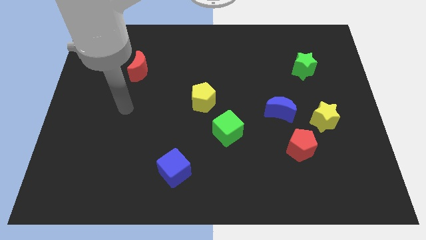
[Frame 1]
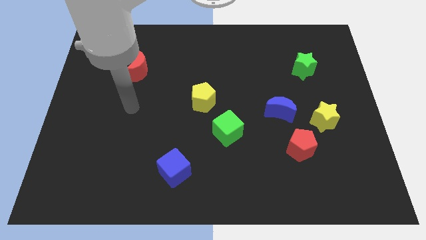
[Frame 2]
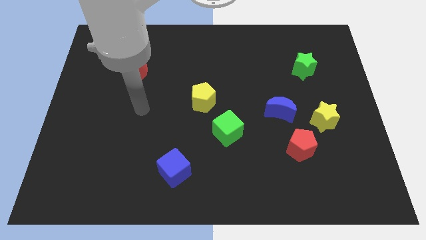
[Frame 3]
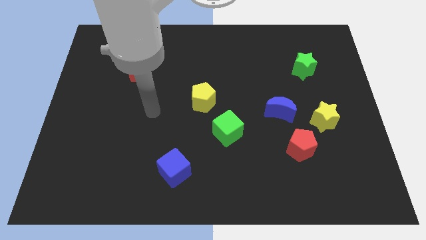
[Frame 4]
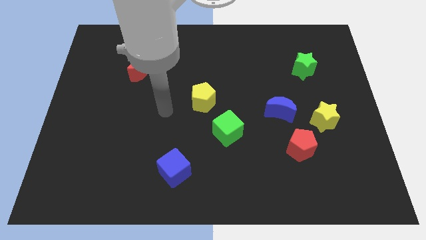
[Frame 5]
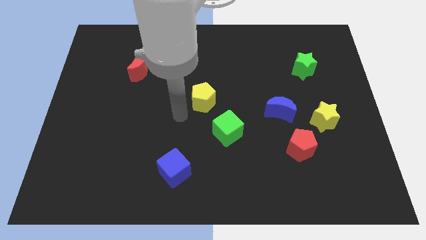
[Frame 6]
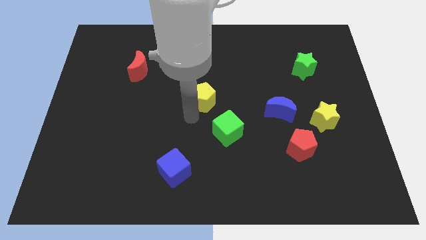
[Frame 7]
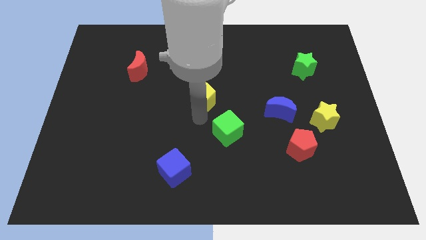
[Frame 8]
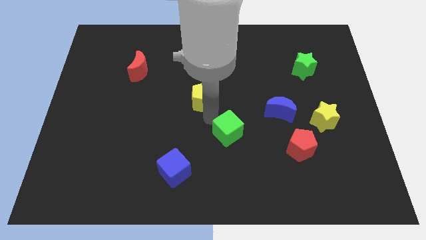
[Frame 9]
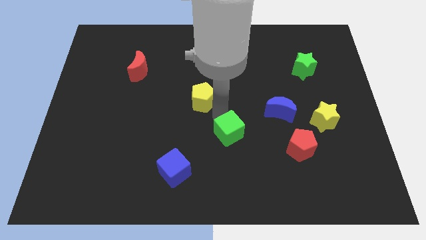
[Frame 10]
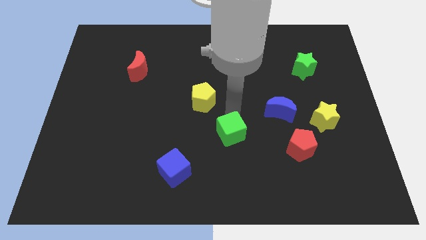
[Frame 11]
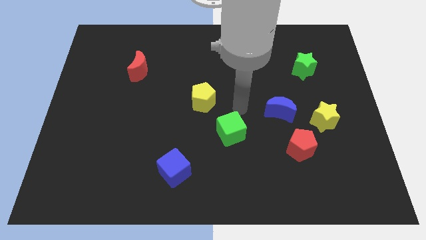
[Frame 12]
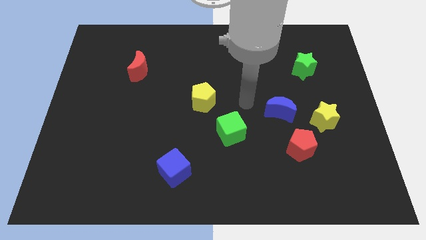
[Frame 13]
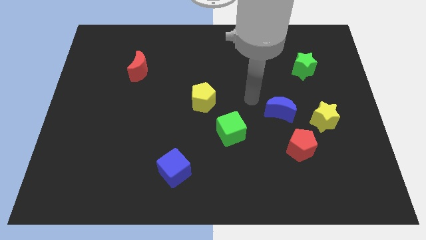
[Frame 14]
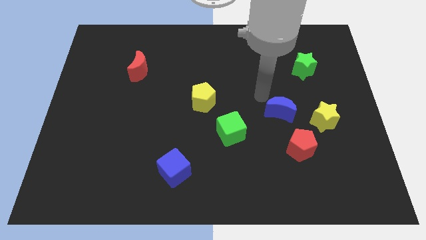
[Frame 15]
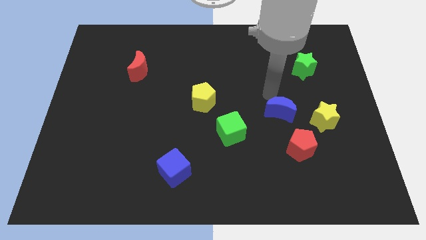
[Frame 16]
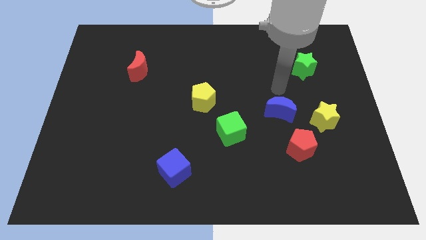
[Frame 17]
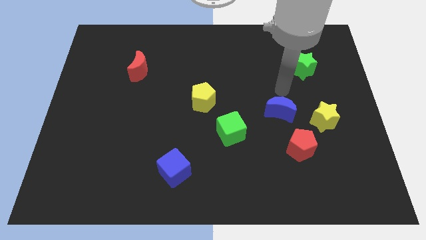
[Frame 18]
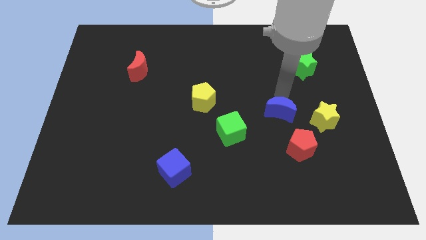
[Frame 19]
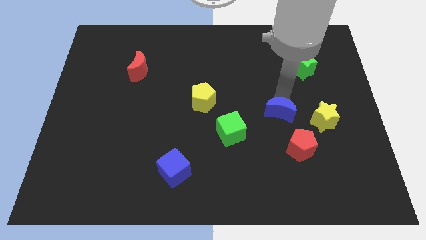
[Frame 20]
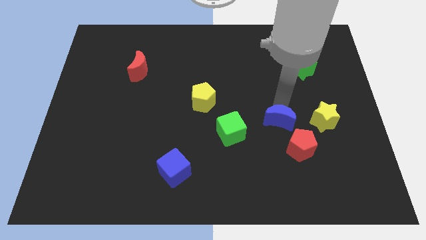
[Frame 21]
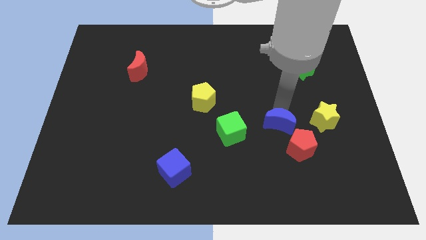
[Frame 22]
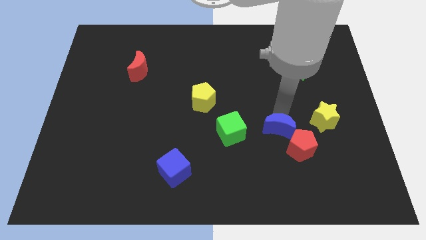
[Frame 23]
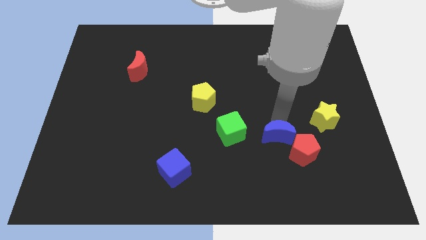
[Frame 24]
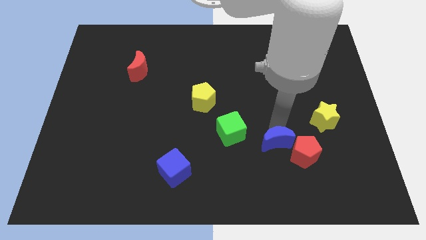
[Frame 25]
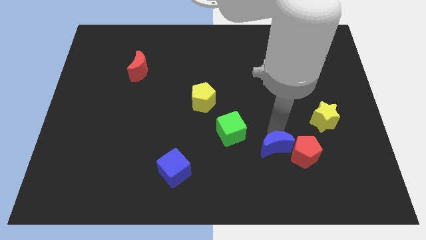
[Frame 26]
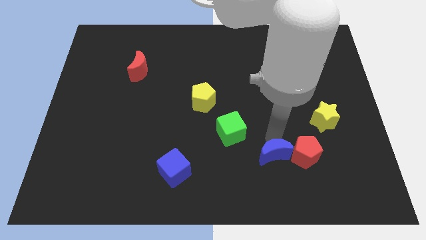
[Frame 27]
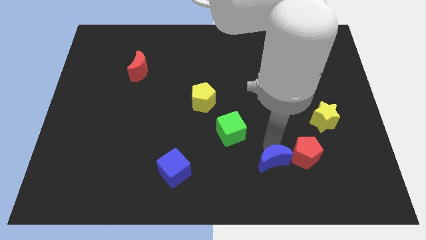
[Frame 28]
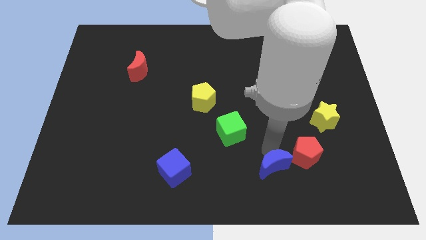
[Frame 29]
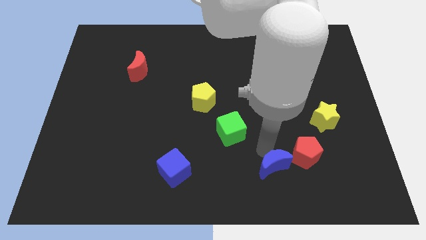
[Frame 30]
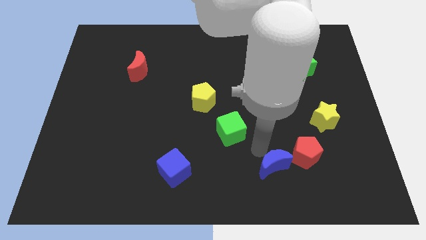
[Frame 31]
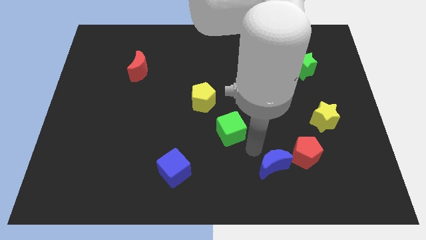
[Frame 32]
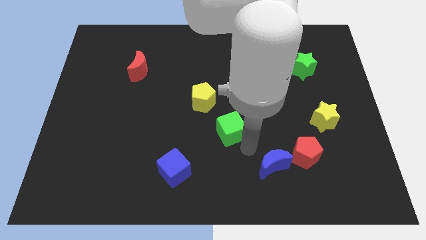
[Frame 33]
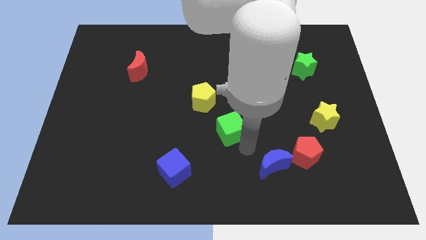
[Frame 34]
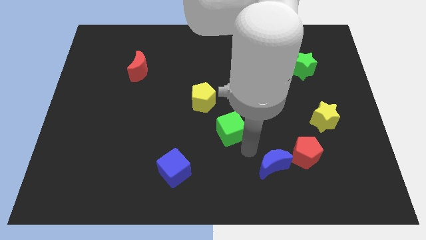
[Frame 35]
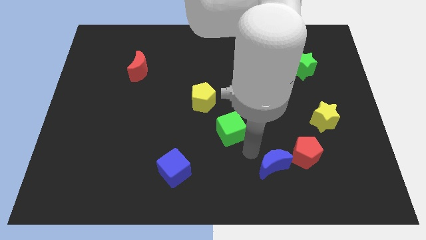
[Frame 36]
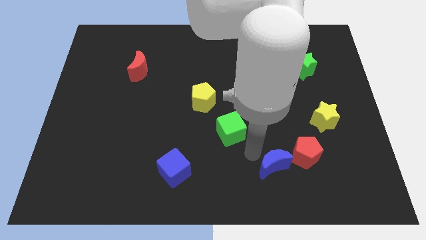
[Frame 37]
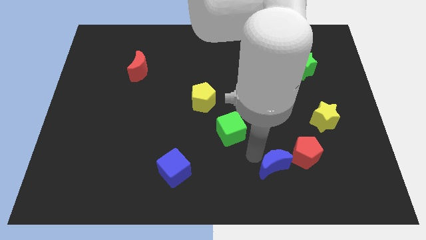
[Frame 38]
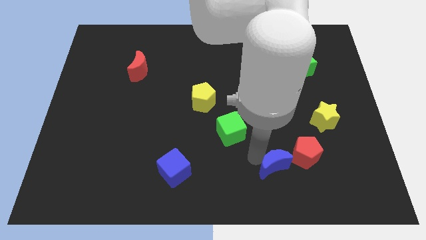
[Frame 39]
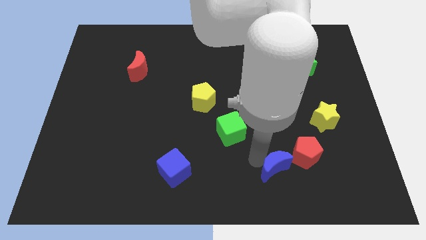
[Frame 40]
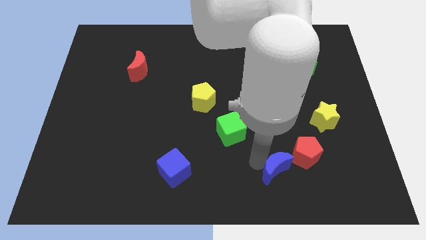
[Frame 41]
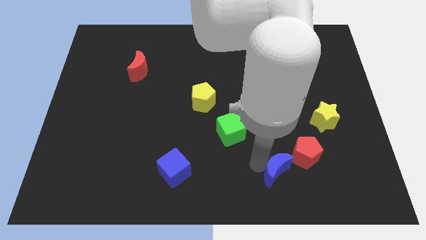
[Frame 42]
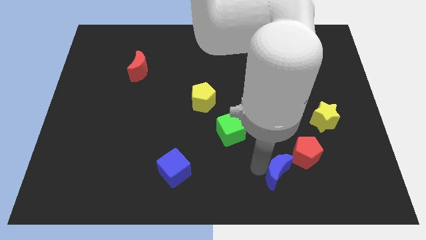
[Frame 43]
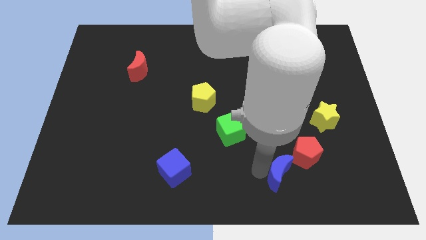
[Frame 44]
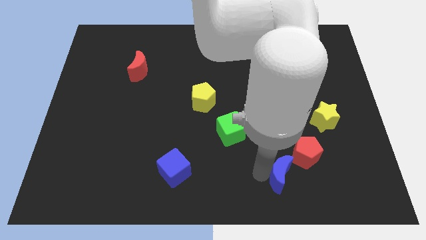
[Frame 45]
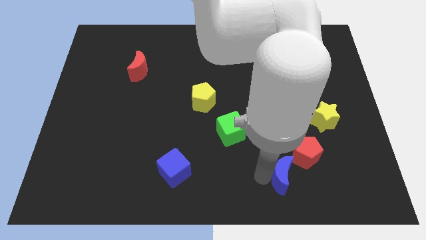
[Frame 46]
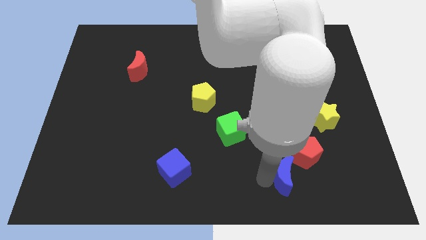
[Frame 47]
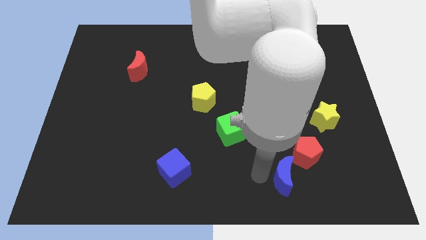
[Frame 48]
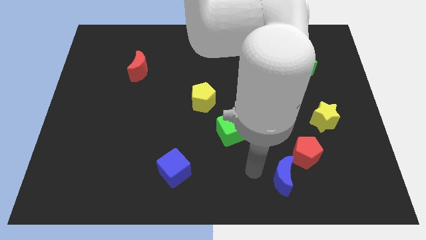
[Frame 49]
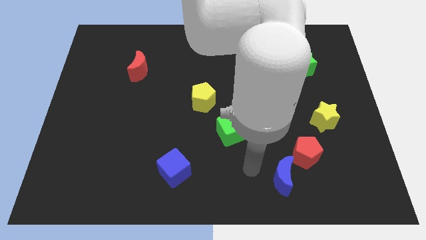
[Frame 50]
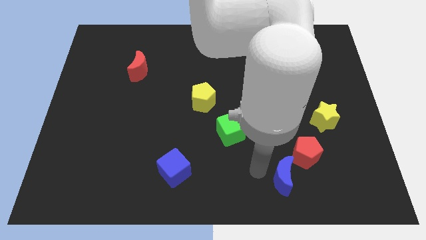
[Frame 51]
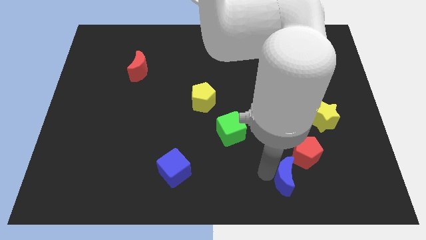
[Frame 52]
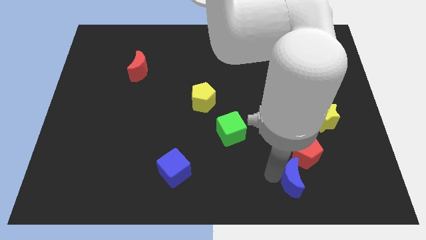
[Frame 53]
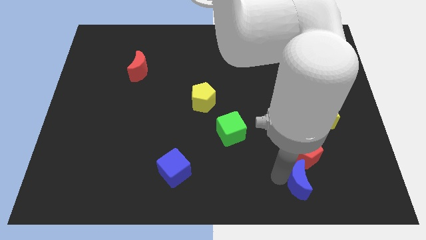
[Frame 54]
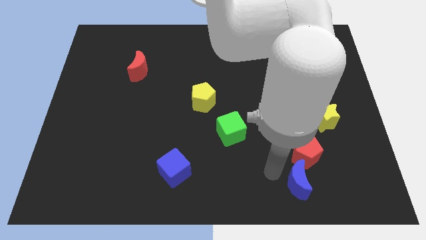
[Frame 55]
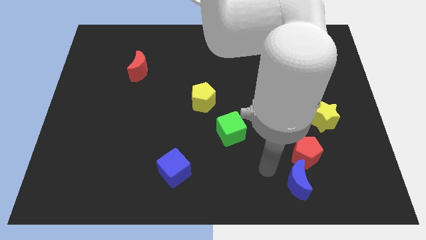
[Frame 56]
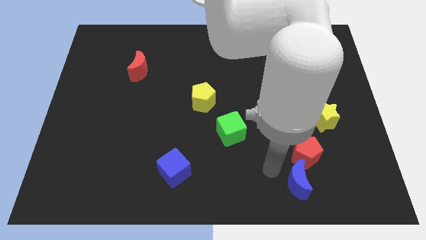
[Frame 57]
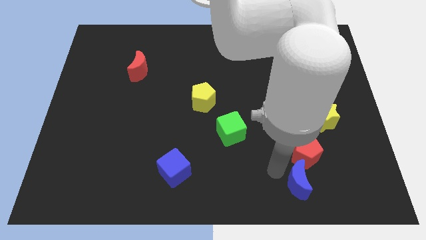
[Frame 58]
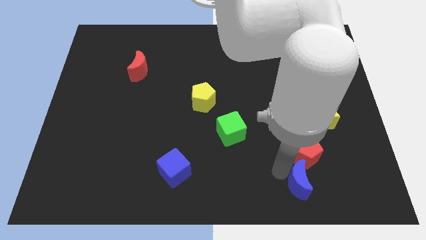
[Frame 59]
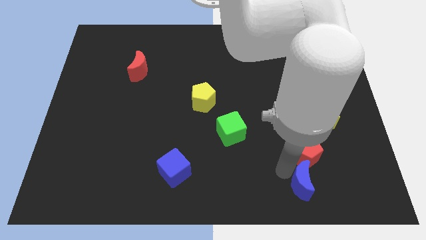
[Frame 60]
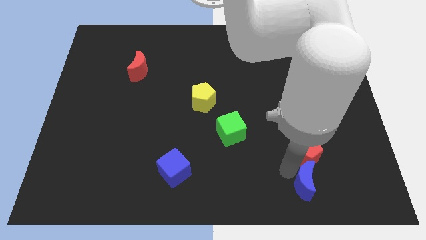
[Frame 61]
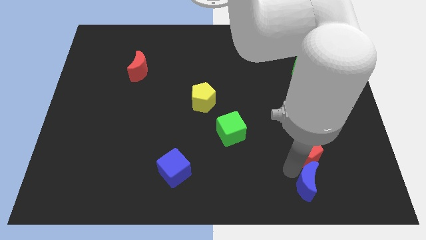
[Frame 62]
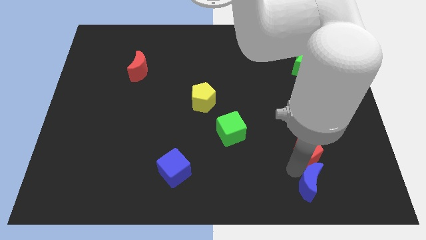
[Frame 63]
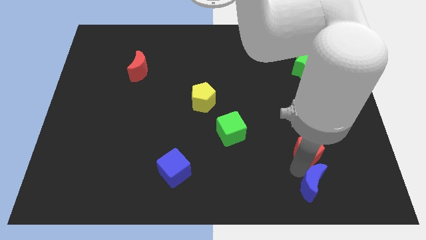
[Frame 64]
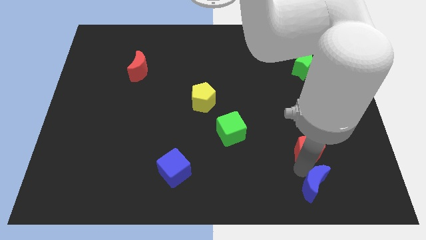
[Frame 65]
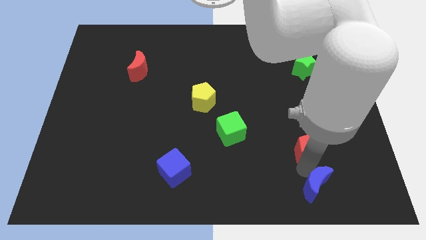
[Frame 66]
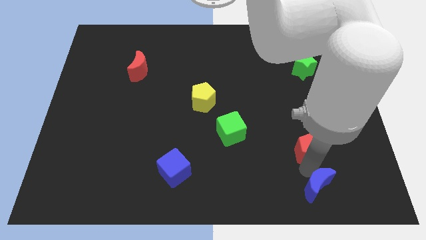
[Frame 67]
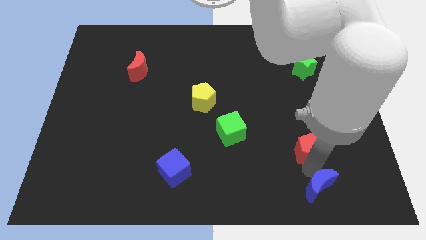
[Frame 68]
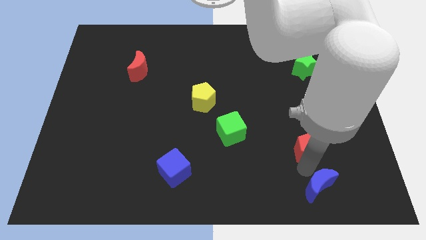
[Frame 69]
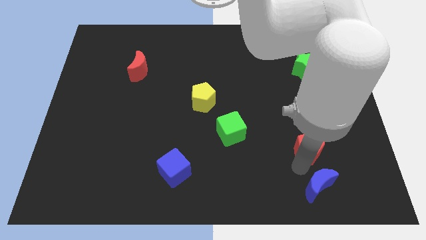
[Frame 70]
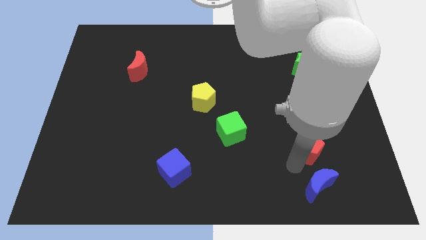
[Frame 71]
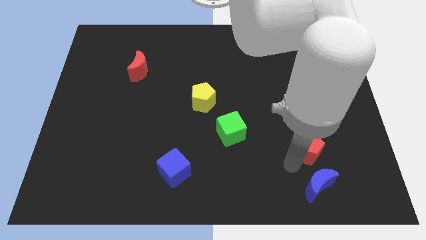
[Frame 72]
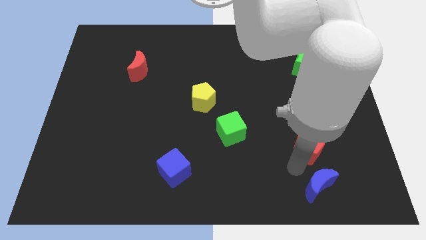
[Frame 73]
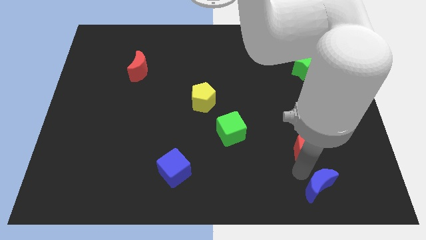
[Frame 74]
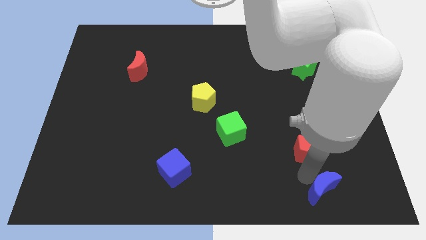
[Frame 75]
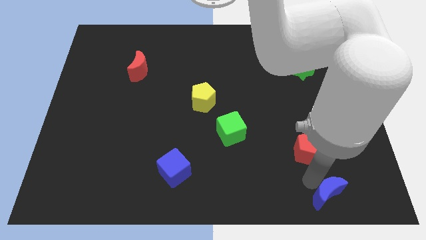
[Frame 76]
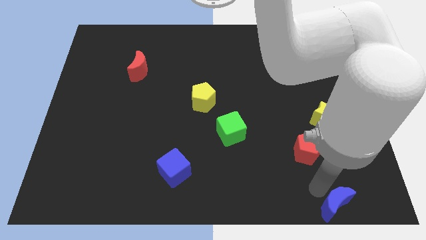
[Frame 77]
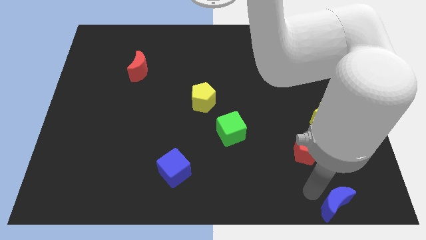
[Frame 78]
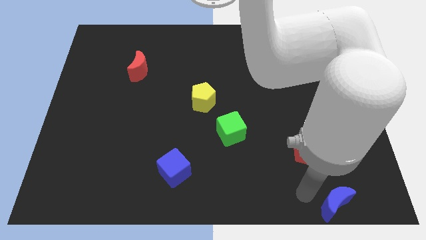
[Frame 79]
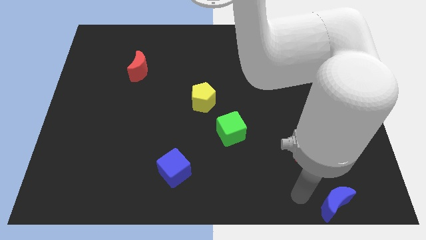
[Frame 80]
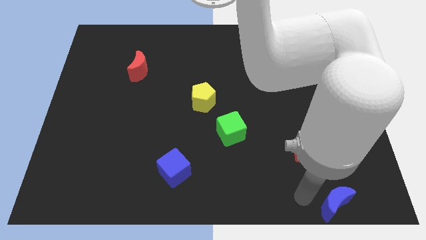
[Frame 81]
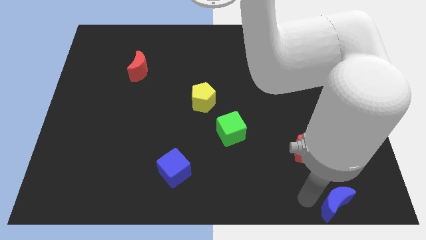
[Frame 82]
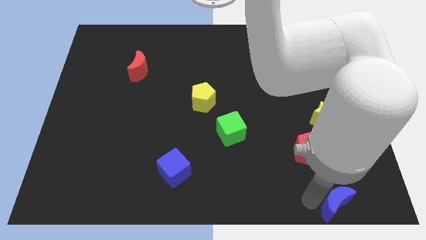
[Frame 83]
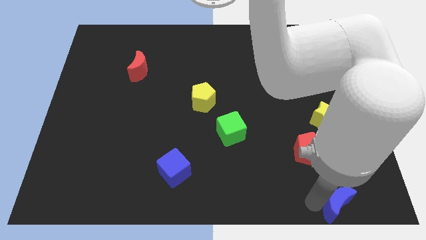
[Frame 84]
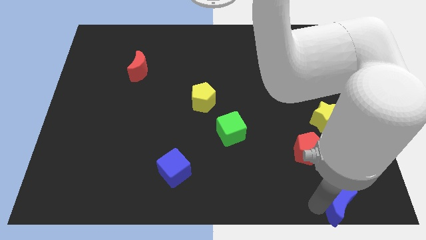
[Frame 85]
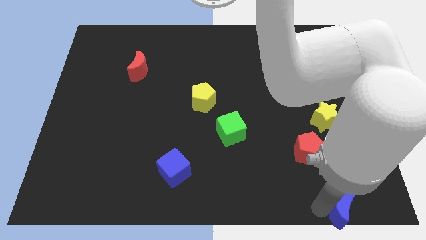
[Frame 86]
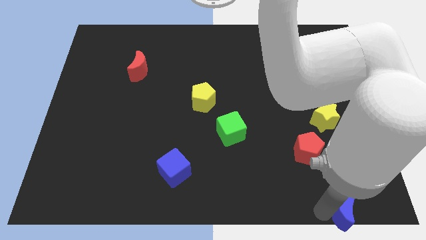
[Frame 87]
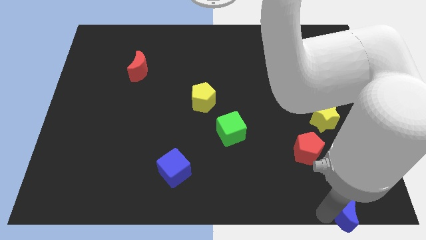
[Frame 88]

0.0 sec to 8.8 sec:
put the blue moon to the bottom right corner
